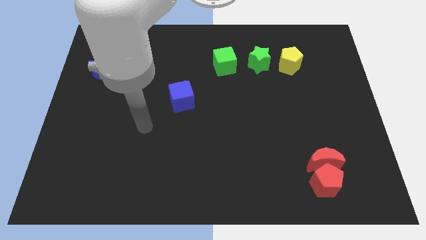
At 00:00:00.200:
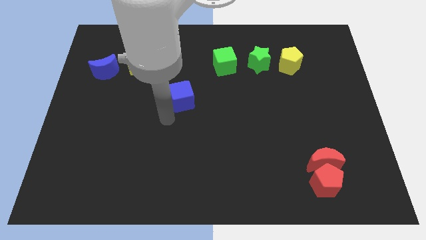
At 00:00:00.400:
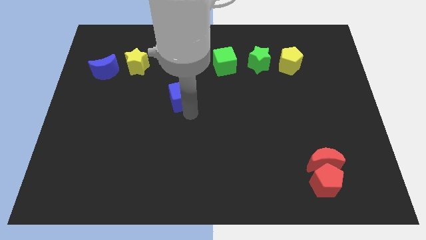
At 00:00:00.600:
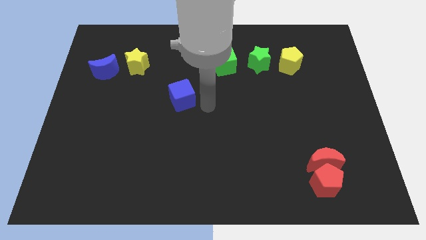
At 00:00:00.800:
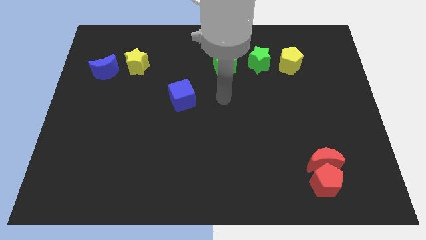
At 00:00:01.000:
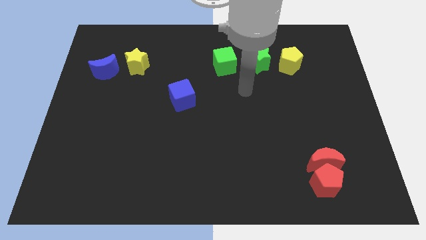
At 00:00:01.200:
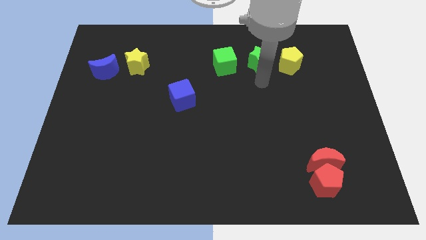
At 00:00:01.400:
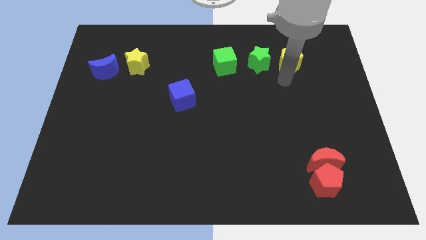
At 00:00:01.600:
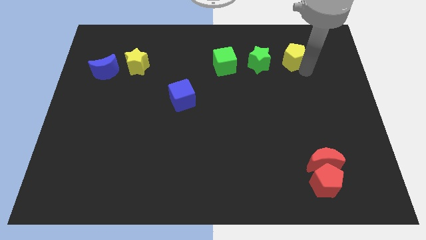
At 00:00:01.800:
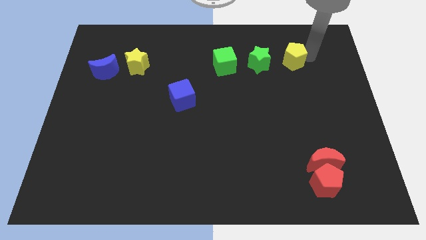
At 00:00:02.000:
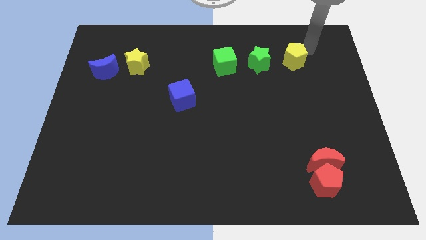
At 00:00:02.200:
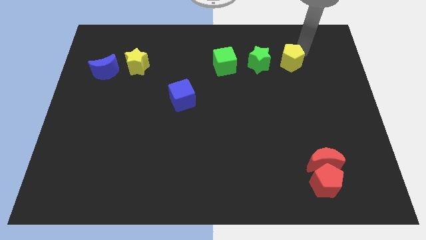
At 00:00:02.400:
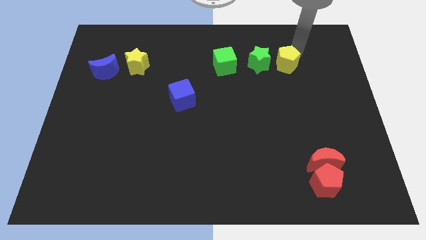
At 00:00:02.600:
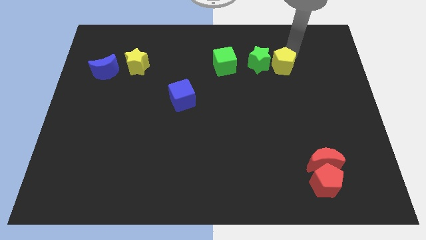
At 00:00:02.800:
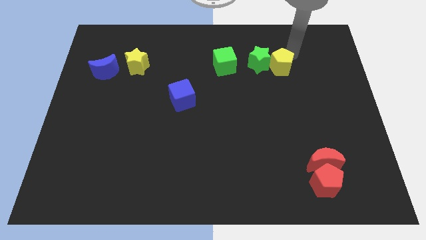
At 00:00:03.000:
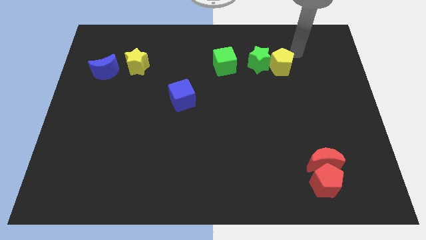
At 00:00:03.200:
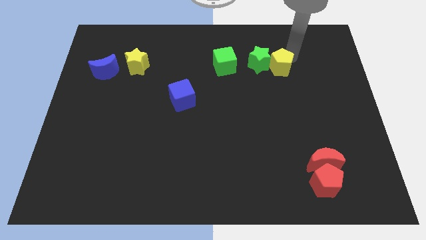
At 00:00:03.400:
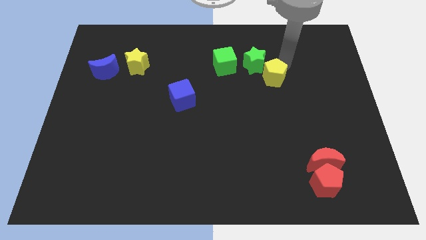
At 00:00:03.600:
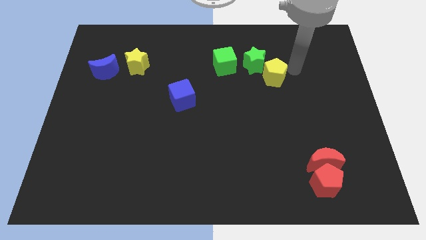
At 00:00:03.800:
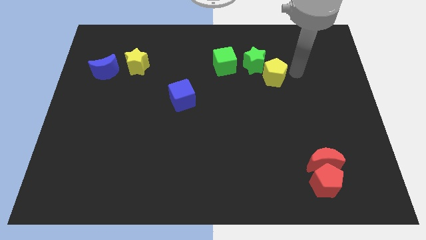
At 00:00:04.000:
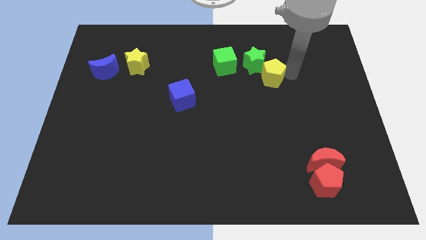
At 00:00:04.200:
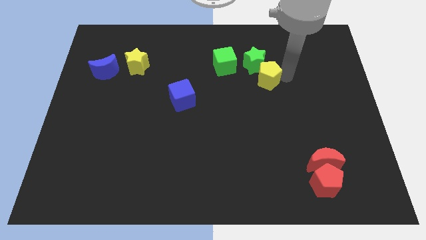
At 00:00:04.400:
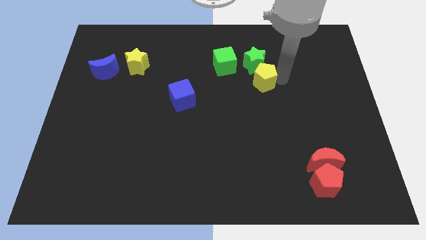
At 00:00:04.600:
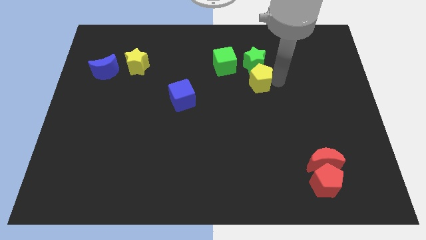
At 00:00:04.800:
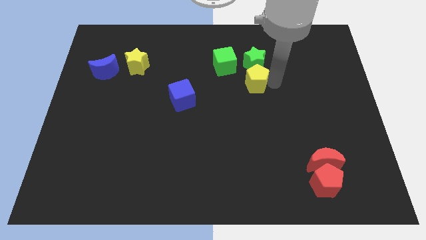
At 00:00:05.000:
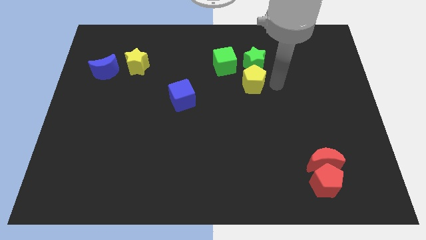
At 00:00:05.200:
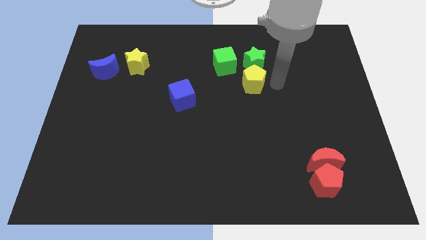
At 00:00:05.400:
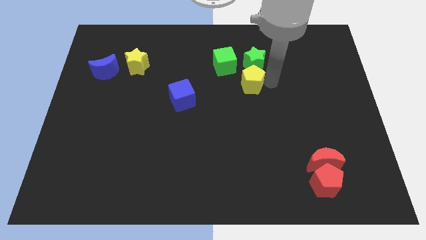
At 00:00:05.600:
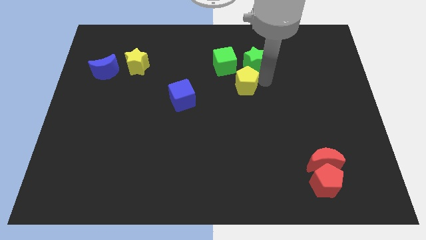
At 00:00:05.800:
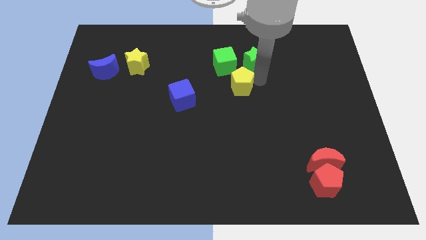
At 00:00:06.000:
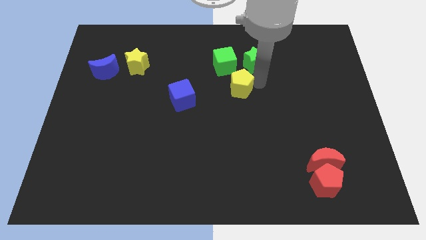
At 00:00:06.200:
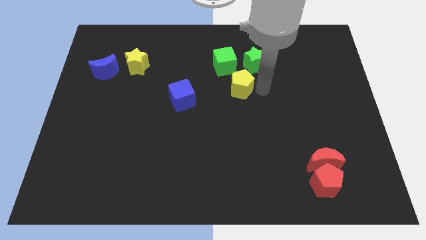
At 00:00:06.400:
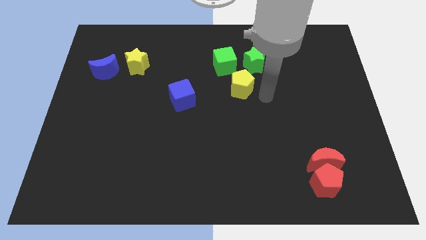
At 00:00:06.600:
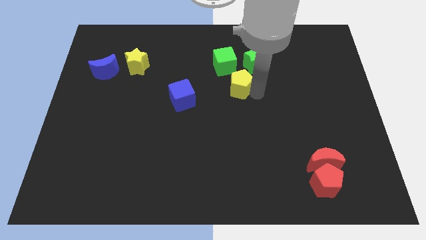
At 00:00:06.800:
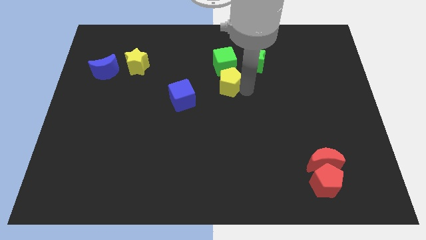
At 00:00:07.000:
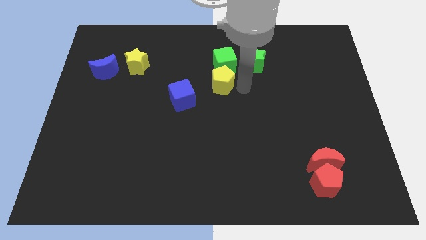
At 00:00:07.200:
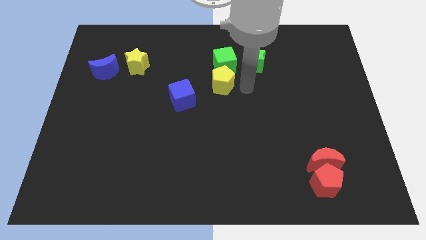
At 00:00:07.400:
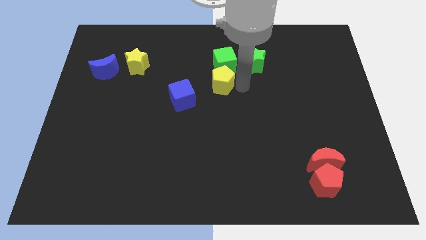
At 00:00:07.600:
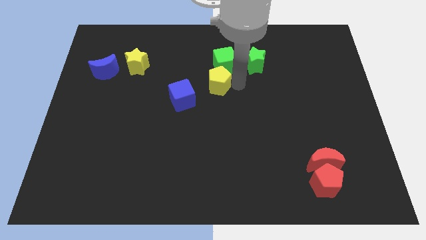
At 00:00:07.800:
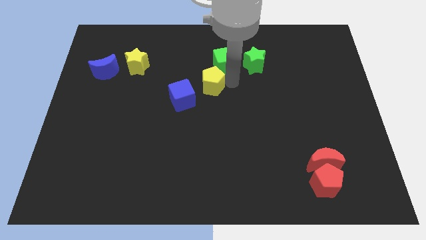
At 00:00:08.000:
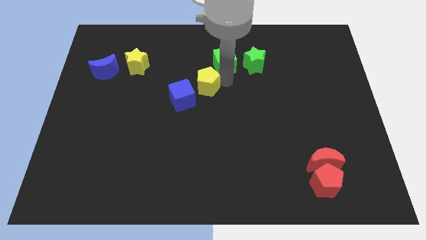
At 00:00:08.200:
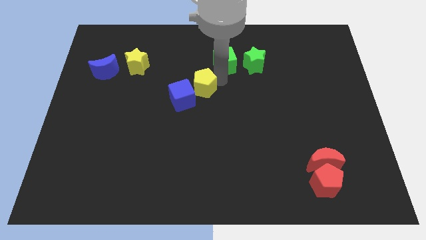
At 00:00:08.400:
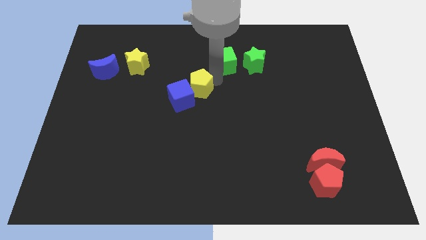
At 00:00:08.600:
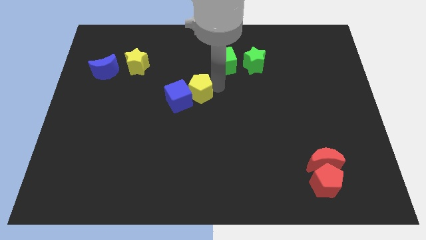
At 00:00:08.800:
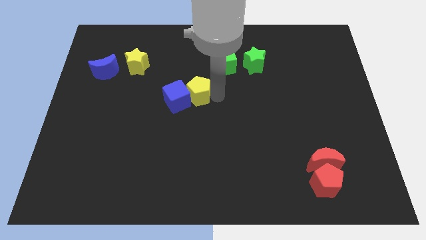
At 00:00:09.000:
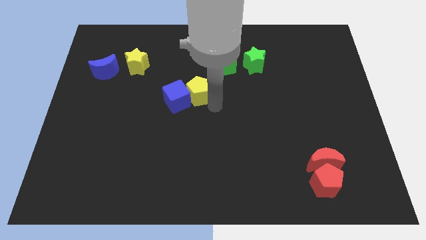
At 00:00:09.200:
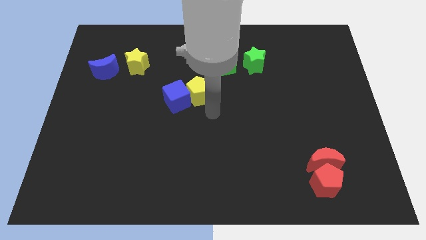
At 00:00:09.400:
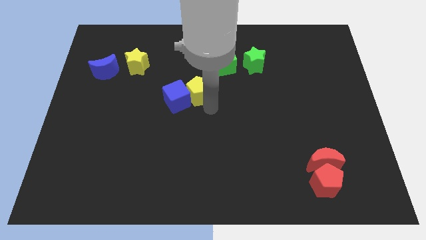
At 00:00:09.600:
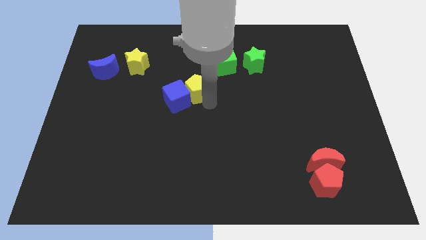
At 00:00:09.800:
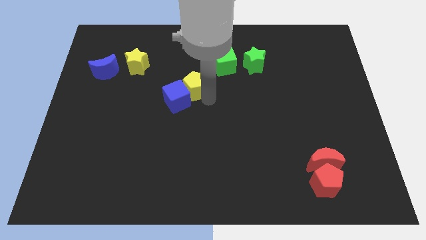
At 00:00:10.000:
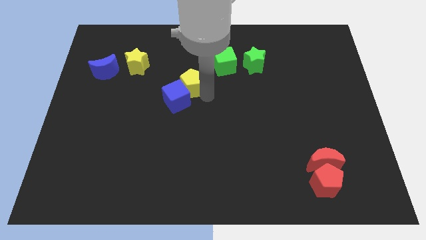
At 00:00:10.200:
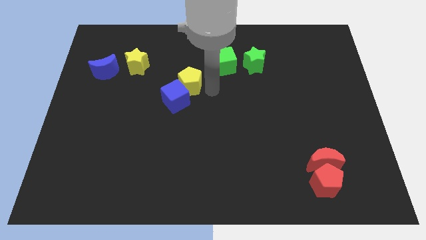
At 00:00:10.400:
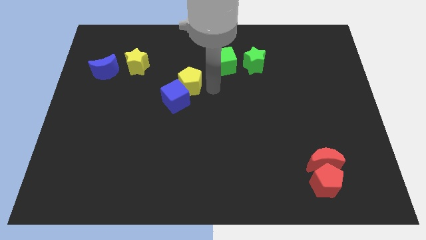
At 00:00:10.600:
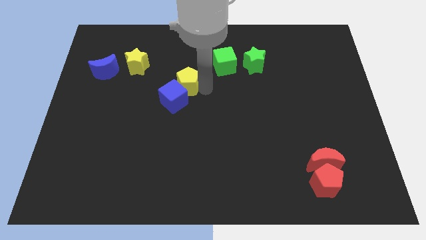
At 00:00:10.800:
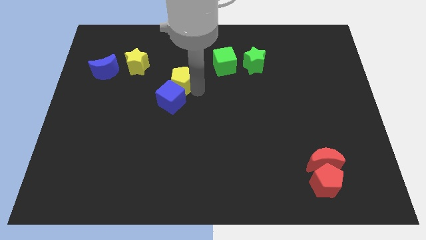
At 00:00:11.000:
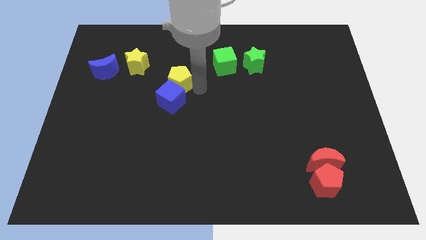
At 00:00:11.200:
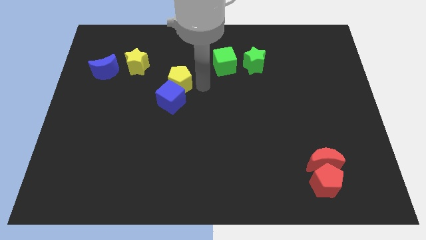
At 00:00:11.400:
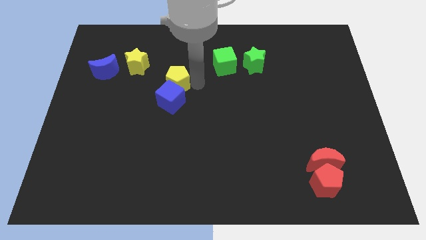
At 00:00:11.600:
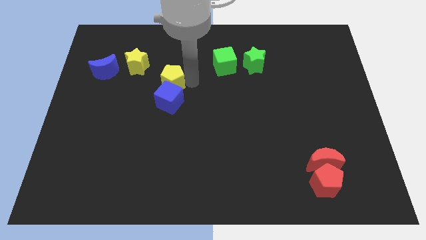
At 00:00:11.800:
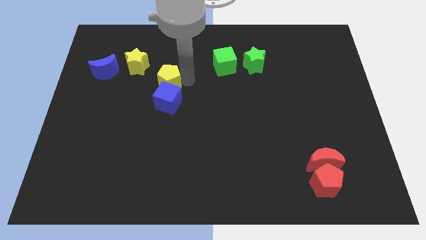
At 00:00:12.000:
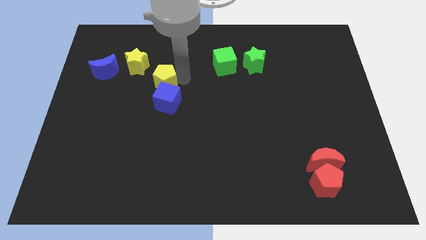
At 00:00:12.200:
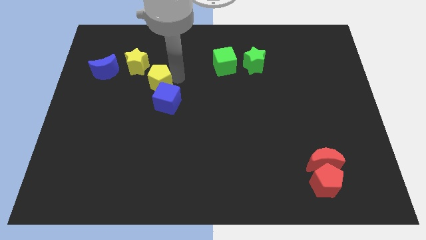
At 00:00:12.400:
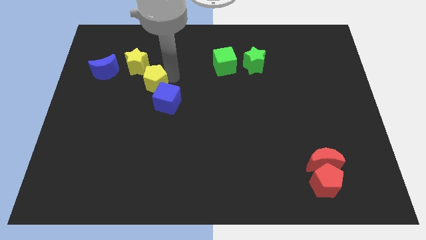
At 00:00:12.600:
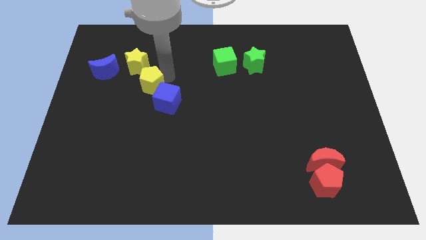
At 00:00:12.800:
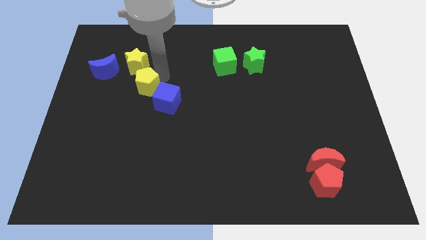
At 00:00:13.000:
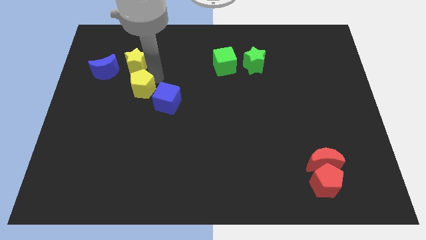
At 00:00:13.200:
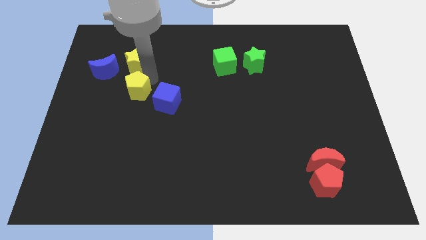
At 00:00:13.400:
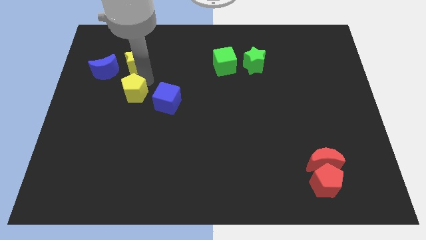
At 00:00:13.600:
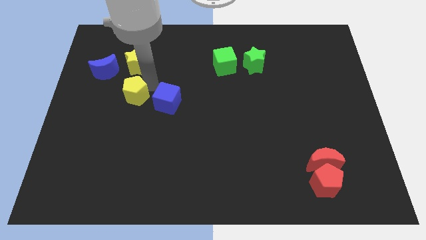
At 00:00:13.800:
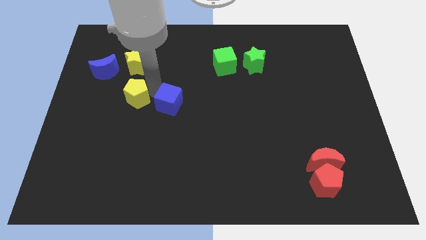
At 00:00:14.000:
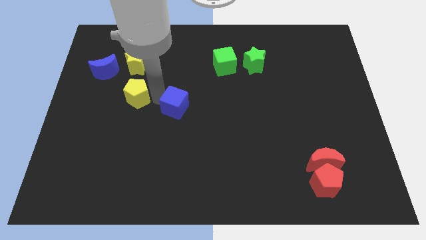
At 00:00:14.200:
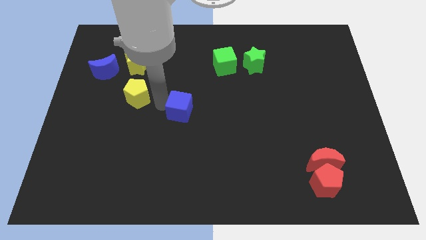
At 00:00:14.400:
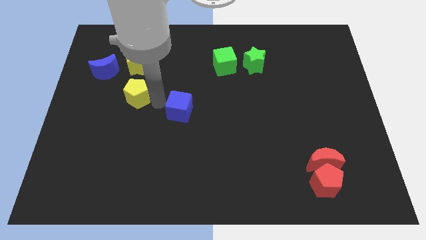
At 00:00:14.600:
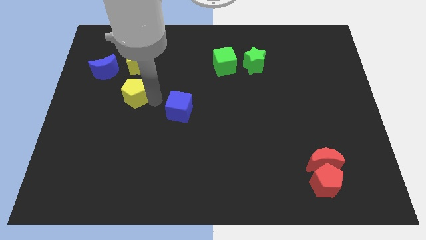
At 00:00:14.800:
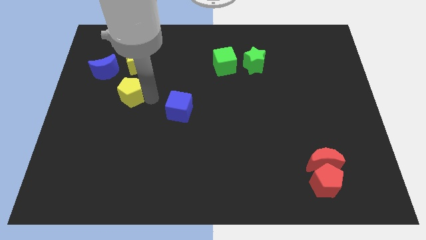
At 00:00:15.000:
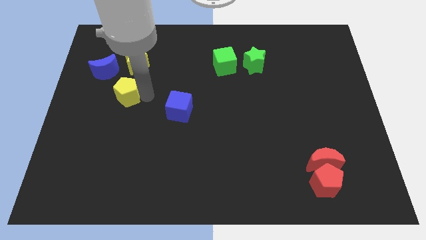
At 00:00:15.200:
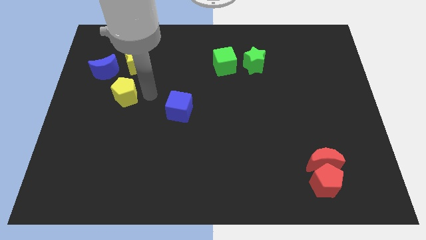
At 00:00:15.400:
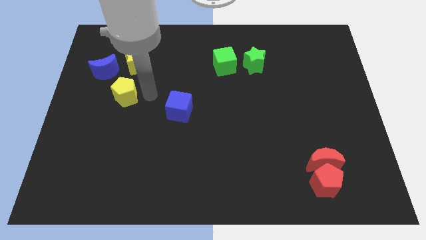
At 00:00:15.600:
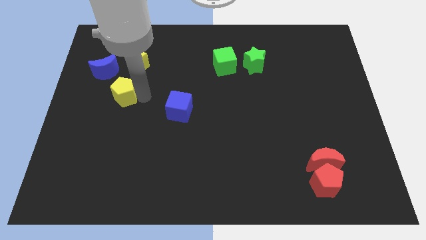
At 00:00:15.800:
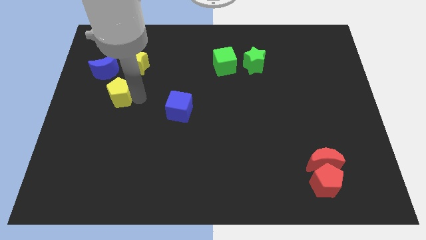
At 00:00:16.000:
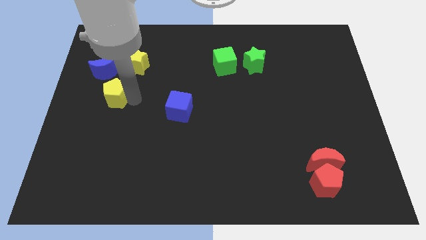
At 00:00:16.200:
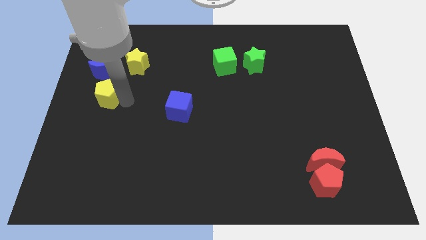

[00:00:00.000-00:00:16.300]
put the yellow pentagon to the center left

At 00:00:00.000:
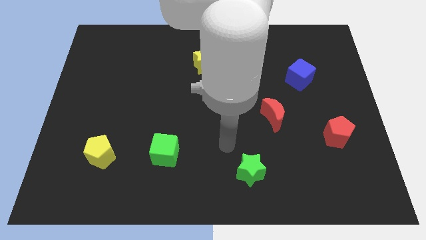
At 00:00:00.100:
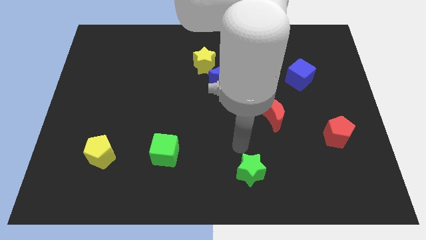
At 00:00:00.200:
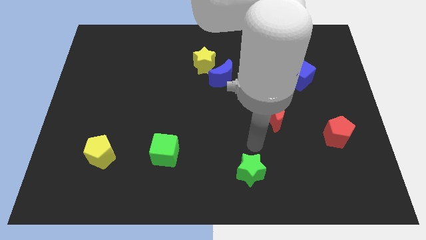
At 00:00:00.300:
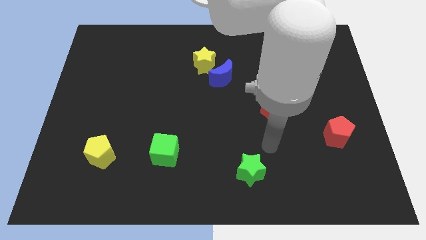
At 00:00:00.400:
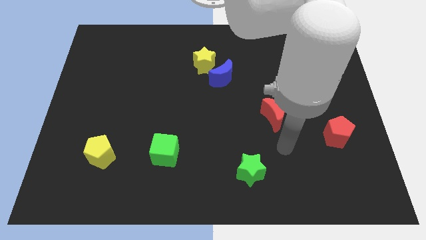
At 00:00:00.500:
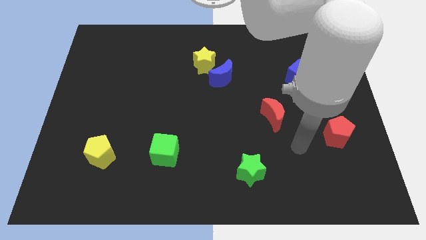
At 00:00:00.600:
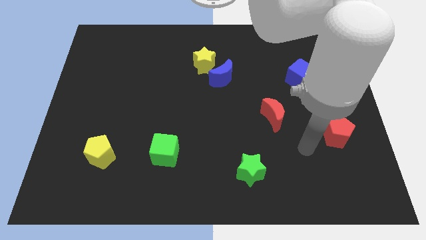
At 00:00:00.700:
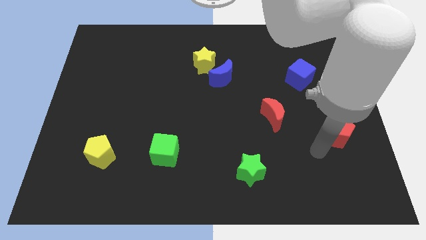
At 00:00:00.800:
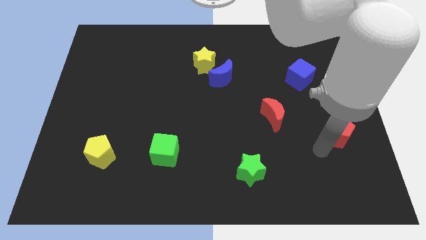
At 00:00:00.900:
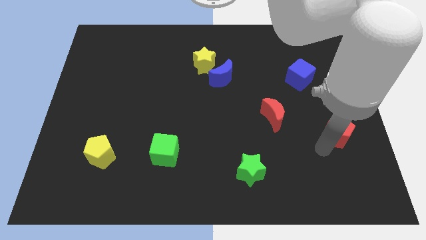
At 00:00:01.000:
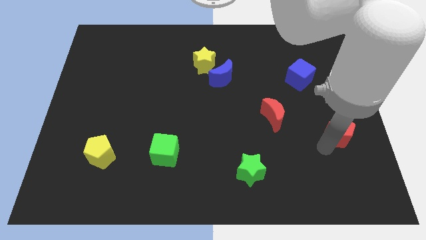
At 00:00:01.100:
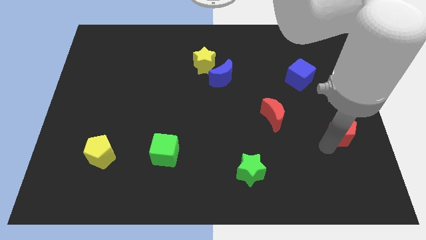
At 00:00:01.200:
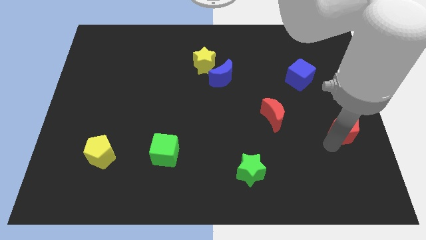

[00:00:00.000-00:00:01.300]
put the red pentagon to the right side
